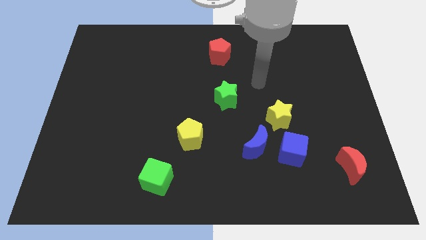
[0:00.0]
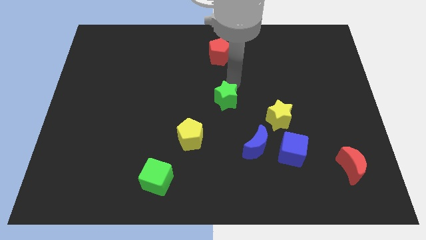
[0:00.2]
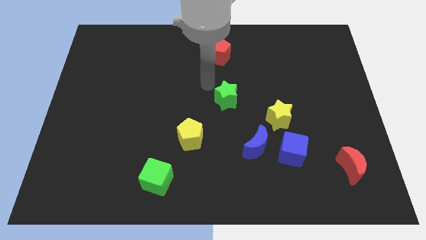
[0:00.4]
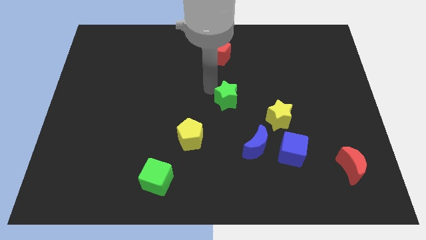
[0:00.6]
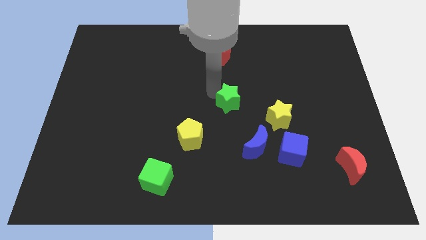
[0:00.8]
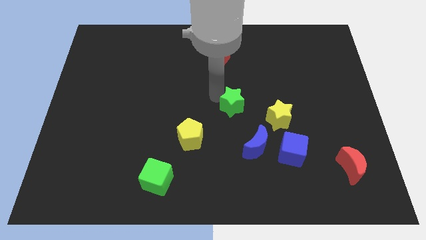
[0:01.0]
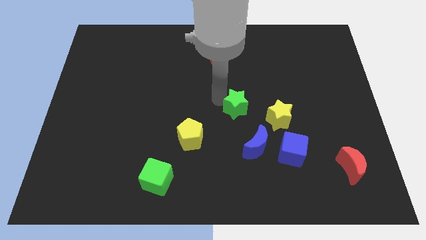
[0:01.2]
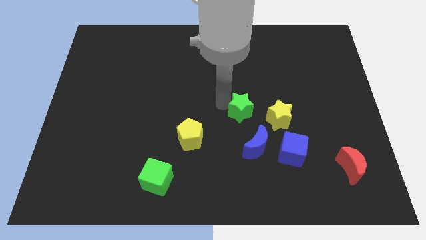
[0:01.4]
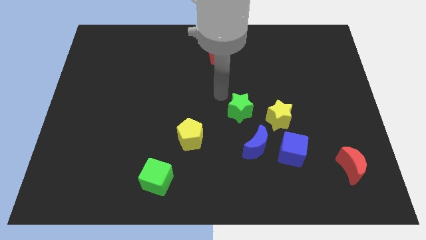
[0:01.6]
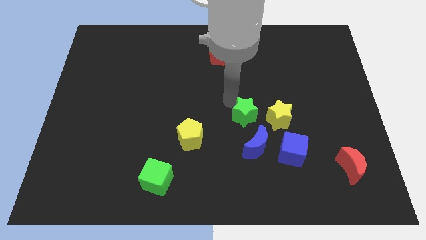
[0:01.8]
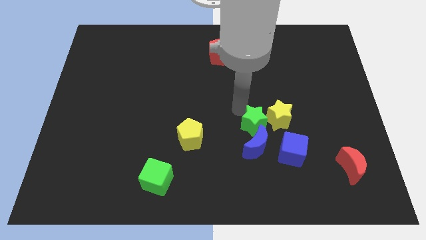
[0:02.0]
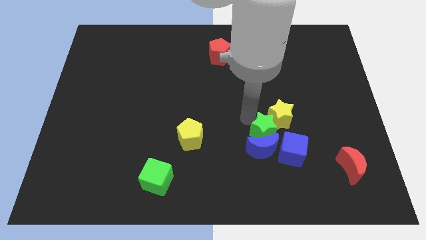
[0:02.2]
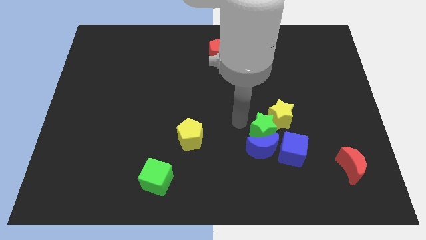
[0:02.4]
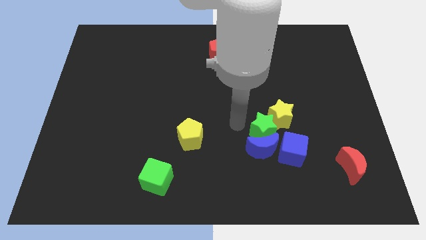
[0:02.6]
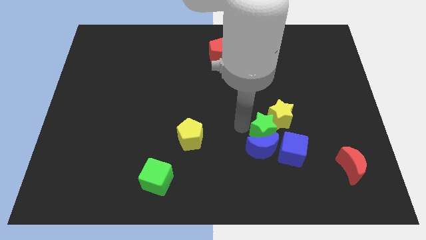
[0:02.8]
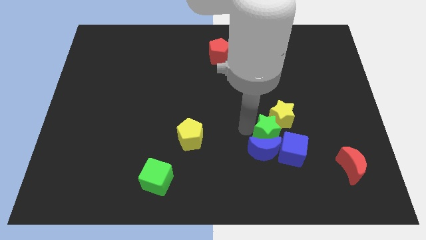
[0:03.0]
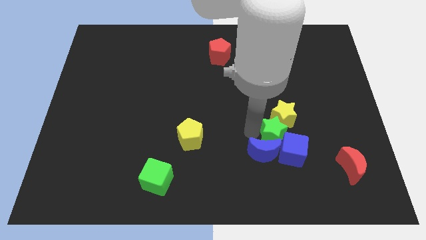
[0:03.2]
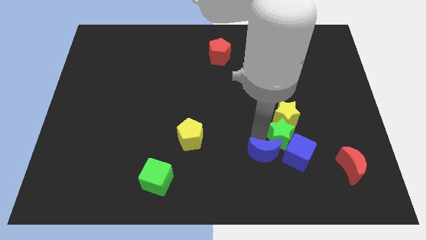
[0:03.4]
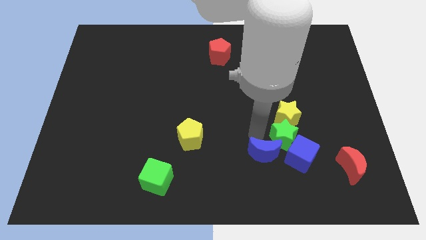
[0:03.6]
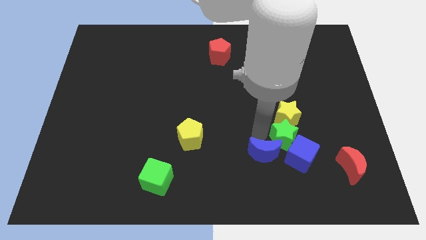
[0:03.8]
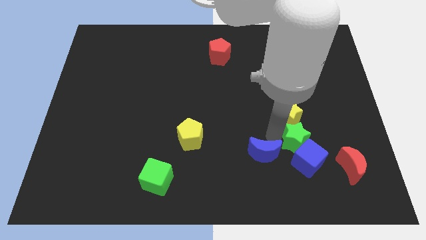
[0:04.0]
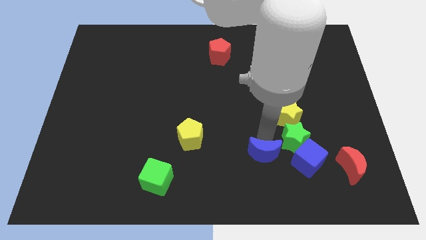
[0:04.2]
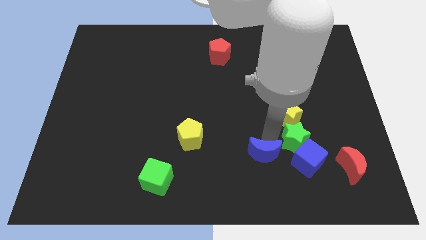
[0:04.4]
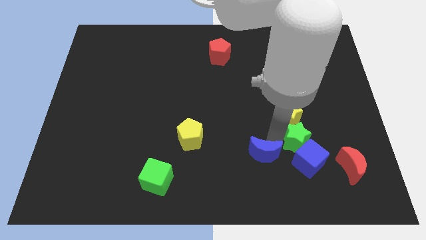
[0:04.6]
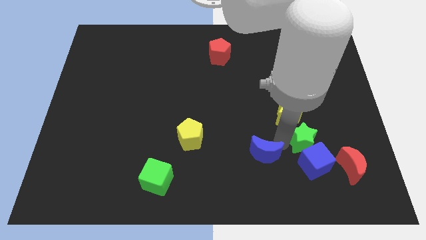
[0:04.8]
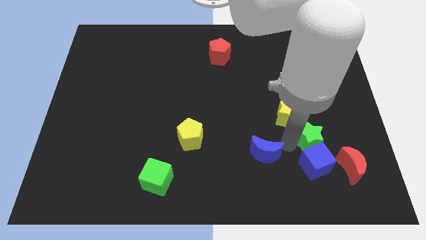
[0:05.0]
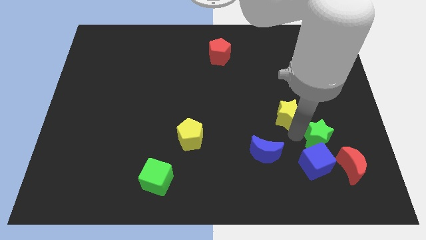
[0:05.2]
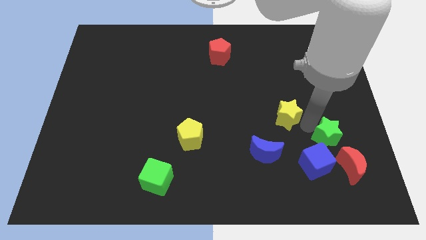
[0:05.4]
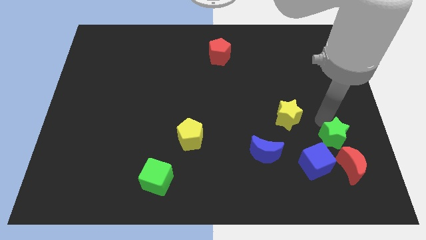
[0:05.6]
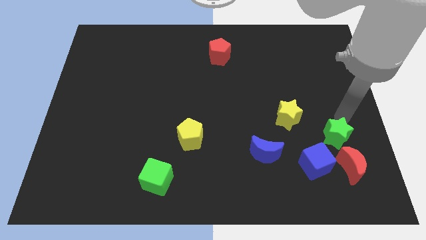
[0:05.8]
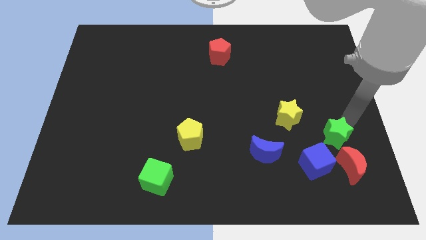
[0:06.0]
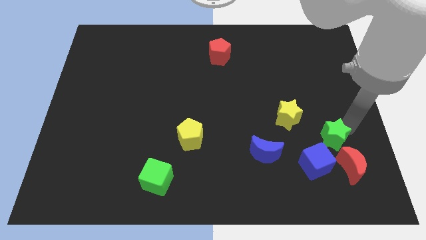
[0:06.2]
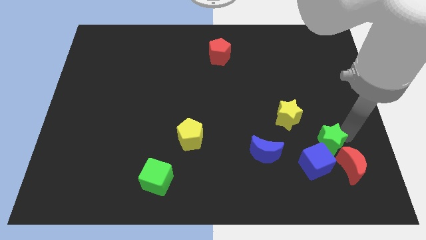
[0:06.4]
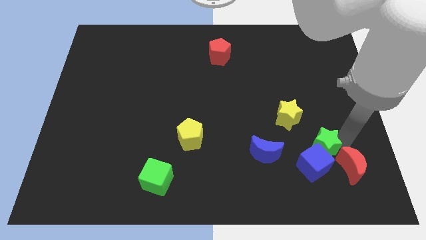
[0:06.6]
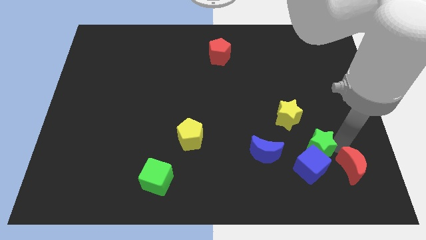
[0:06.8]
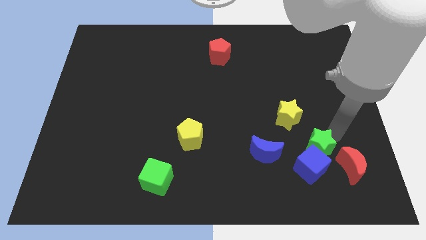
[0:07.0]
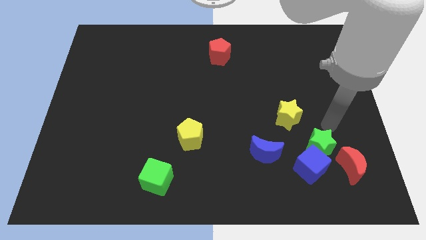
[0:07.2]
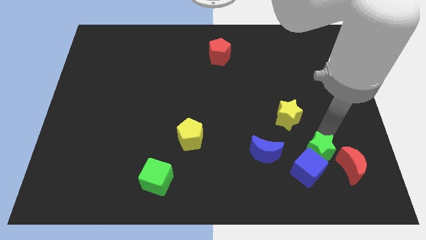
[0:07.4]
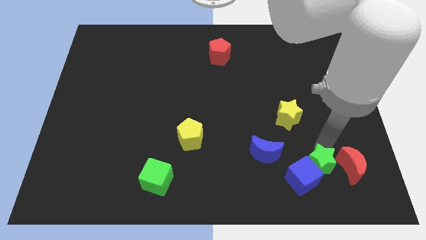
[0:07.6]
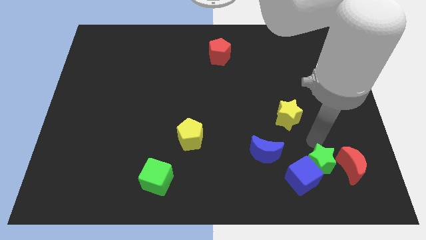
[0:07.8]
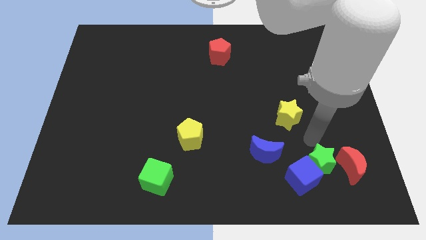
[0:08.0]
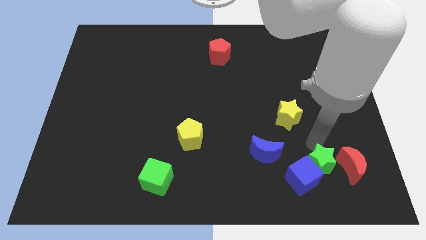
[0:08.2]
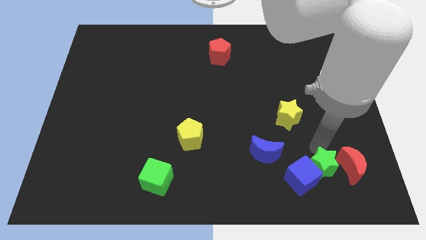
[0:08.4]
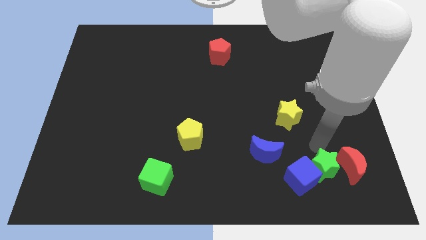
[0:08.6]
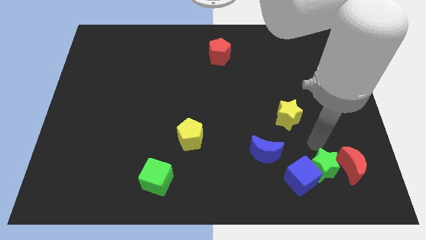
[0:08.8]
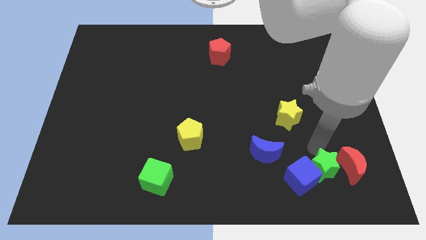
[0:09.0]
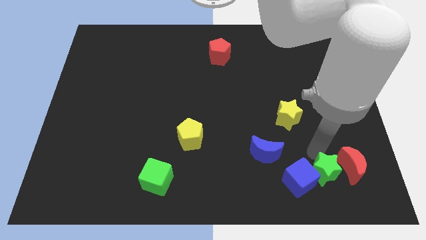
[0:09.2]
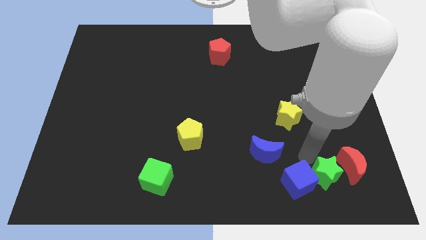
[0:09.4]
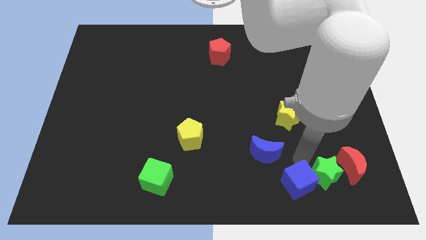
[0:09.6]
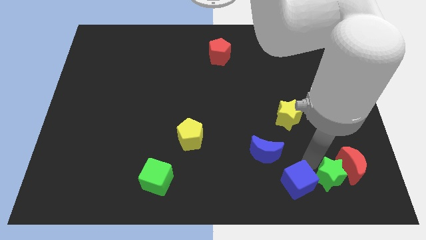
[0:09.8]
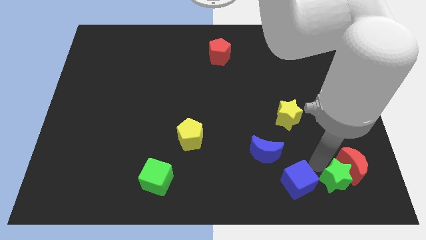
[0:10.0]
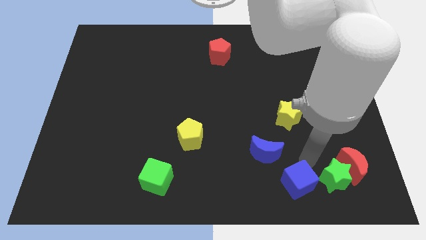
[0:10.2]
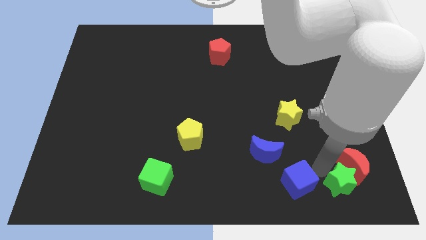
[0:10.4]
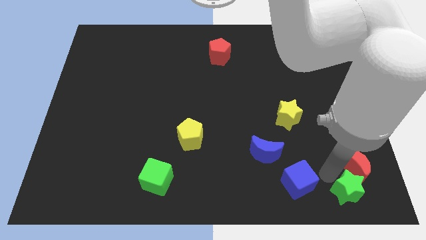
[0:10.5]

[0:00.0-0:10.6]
push the green star to the bottom right
